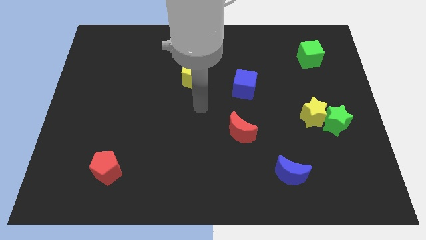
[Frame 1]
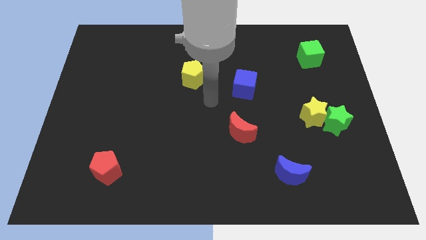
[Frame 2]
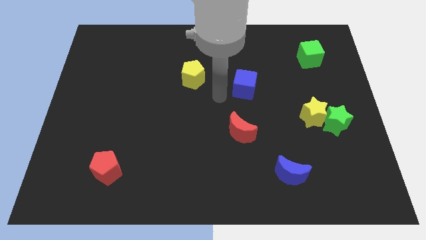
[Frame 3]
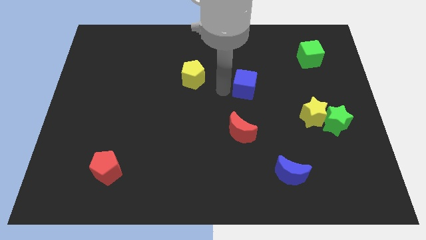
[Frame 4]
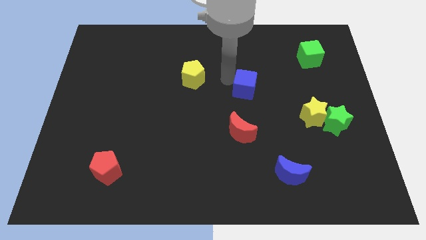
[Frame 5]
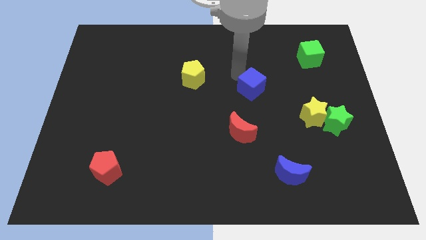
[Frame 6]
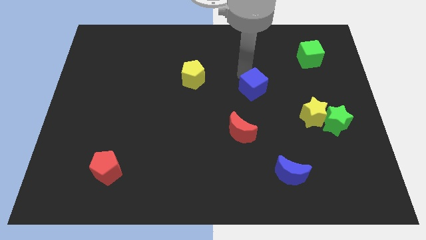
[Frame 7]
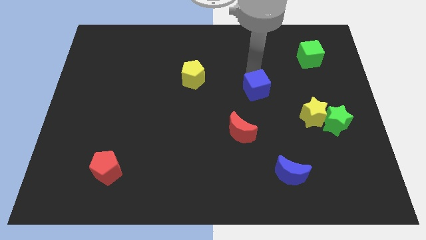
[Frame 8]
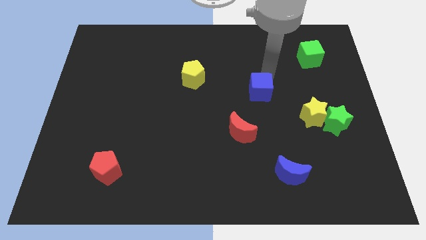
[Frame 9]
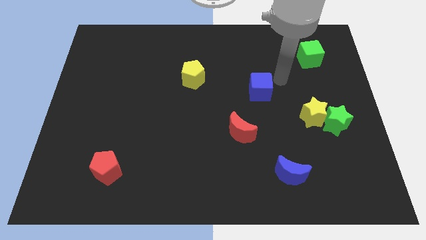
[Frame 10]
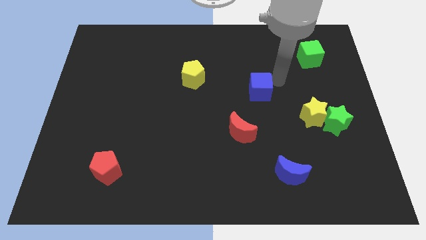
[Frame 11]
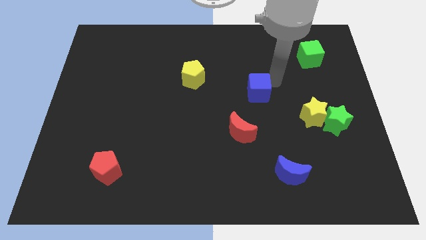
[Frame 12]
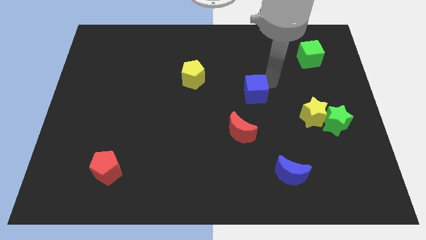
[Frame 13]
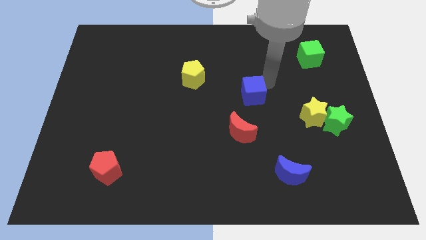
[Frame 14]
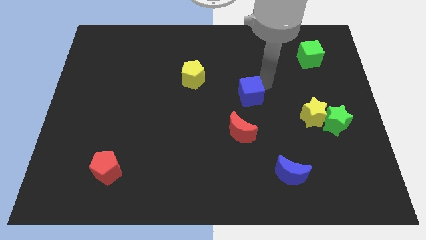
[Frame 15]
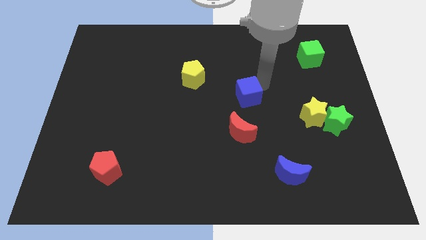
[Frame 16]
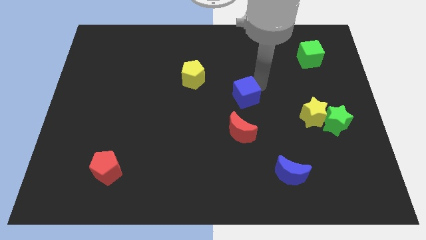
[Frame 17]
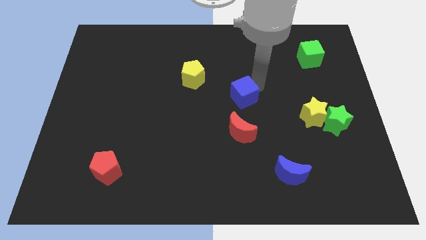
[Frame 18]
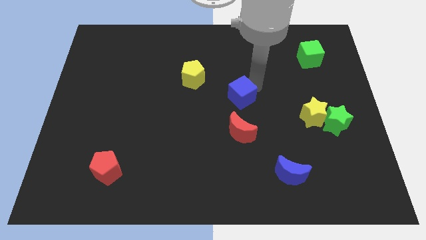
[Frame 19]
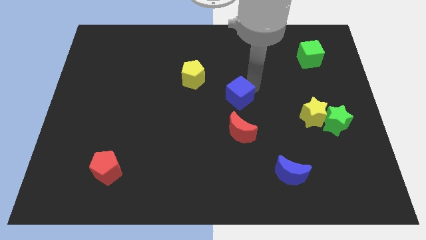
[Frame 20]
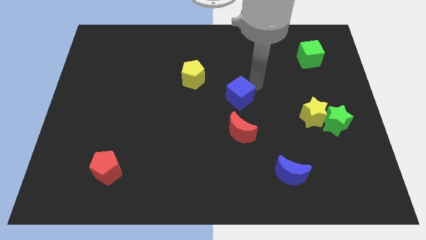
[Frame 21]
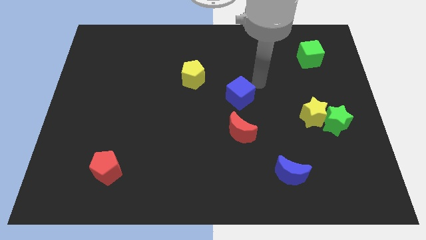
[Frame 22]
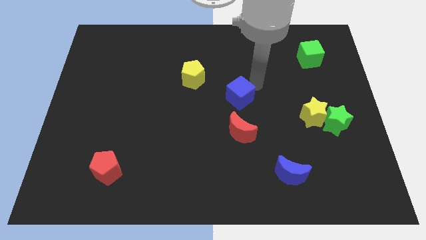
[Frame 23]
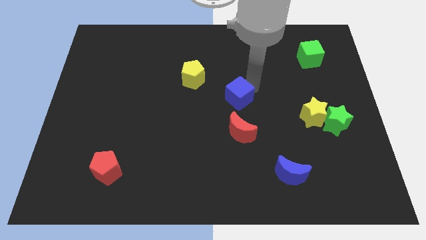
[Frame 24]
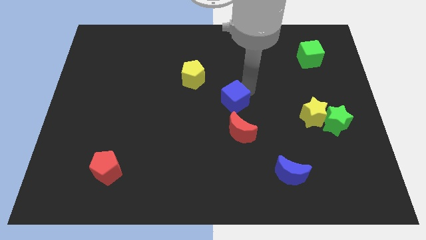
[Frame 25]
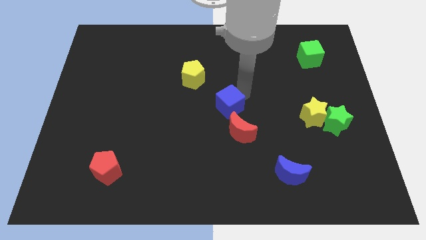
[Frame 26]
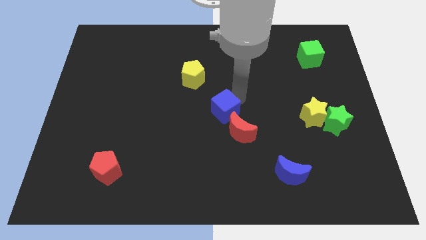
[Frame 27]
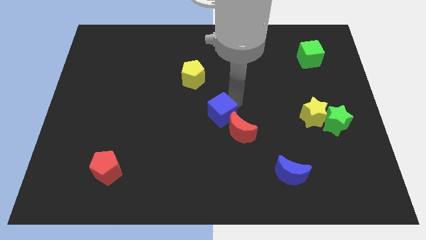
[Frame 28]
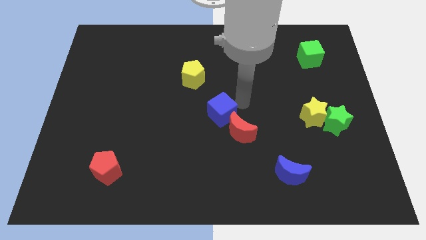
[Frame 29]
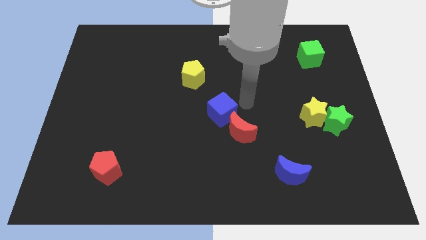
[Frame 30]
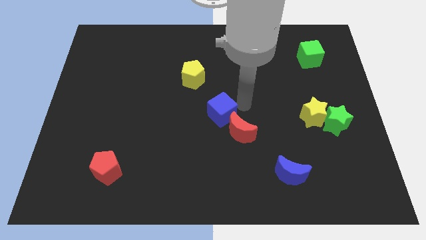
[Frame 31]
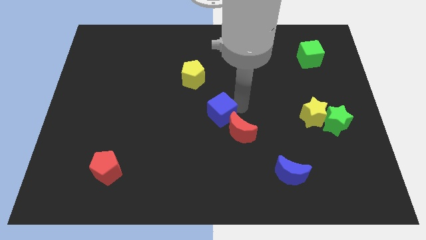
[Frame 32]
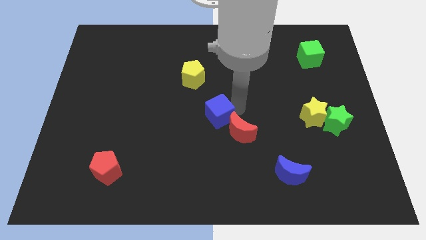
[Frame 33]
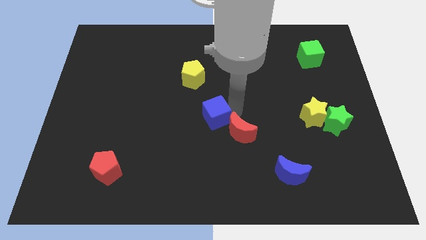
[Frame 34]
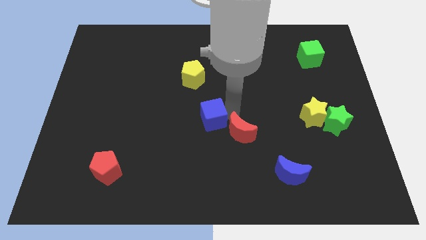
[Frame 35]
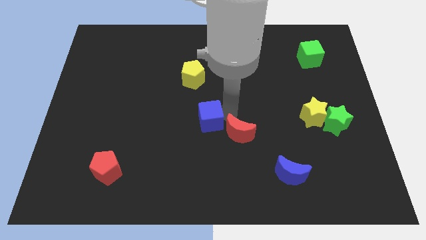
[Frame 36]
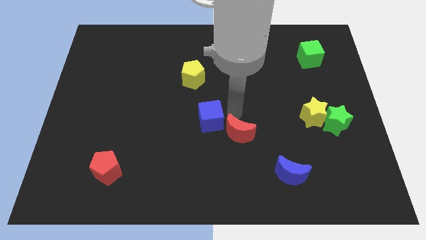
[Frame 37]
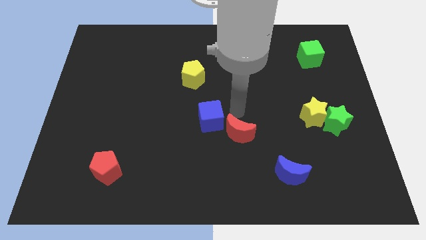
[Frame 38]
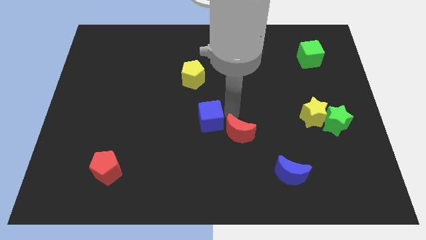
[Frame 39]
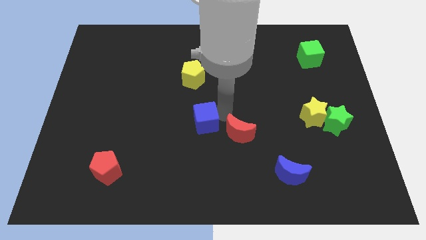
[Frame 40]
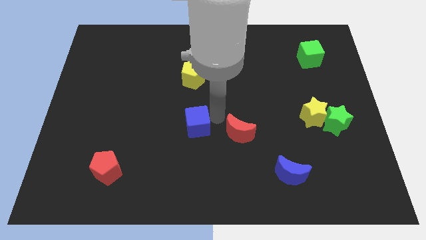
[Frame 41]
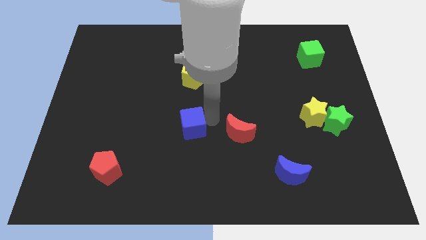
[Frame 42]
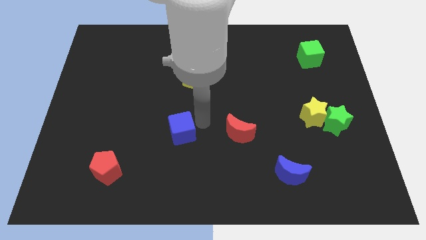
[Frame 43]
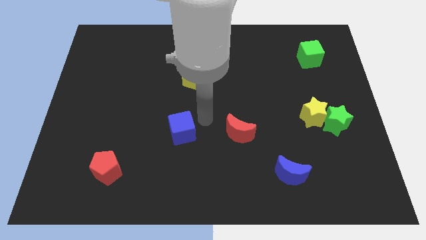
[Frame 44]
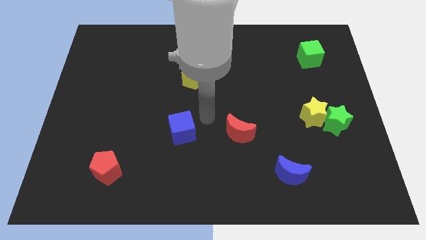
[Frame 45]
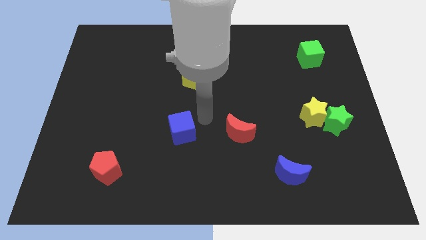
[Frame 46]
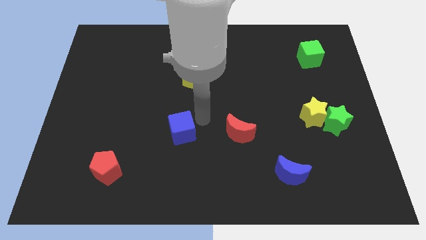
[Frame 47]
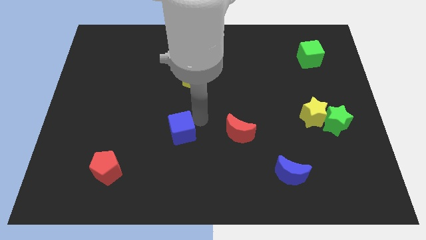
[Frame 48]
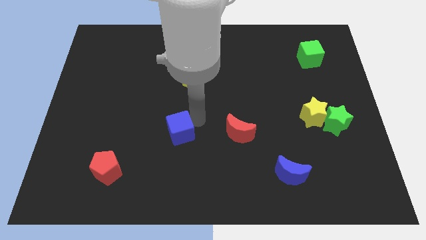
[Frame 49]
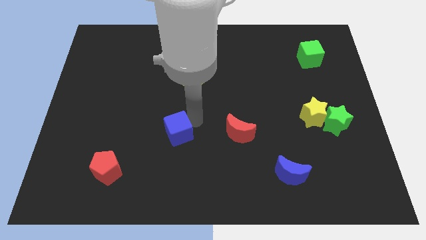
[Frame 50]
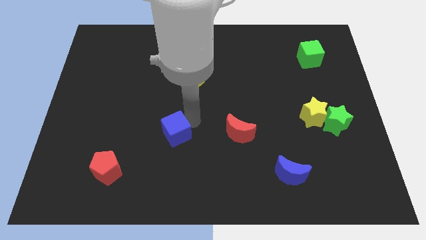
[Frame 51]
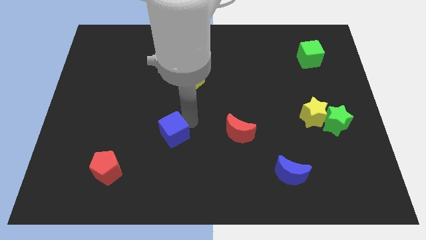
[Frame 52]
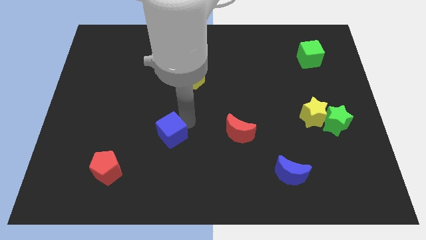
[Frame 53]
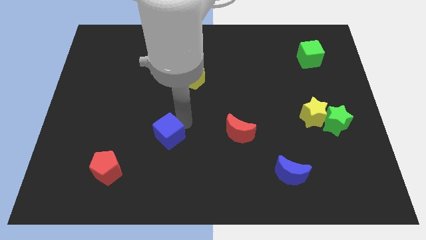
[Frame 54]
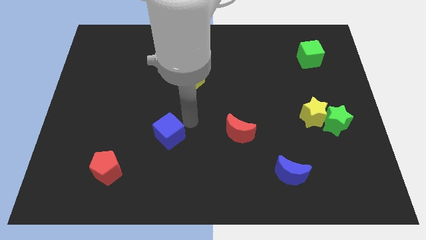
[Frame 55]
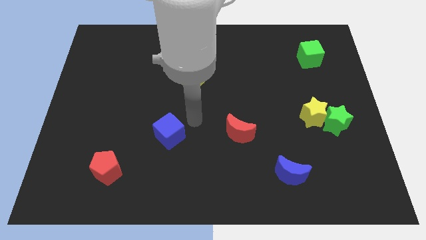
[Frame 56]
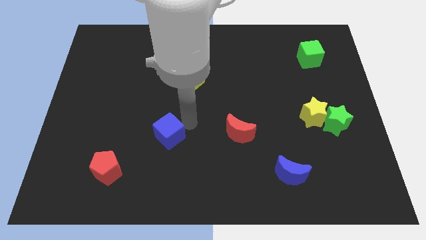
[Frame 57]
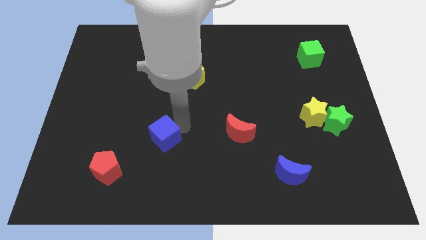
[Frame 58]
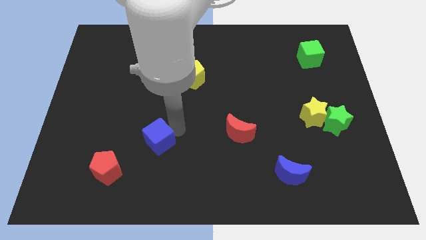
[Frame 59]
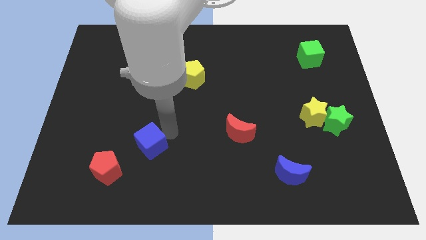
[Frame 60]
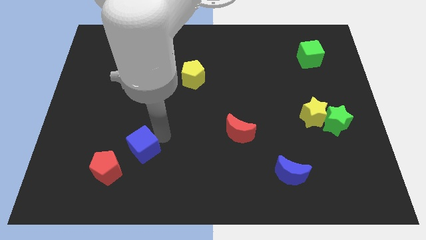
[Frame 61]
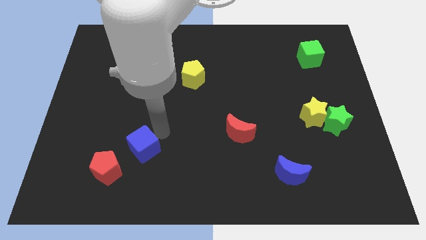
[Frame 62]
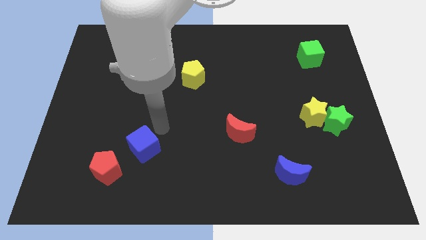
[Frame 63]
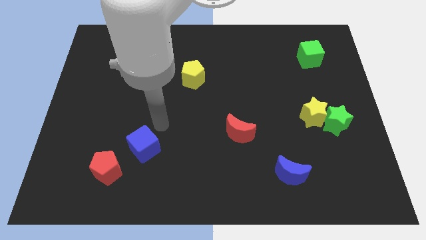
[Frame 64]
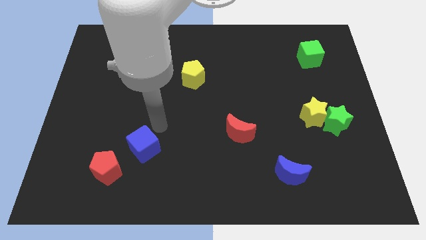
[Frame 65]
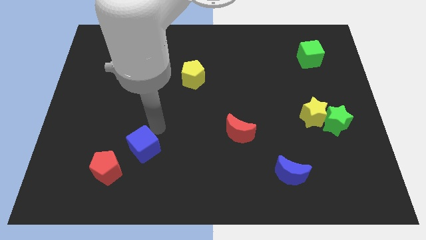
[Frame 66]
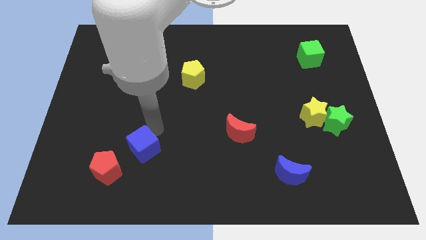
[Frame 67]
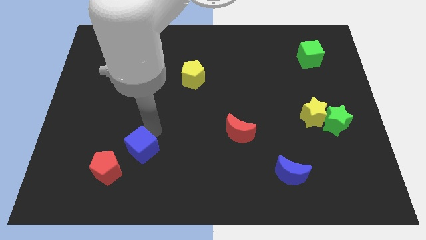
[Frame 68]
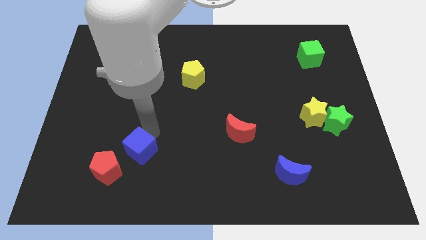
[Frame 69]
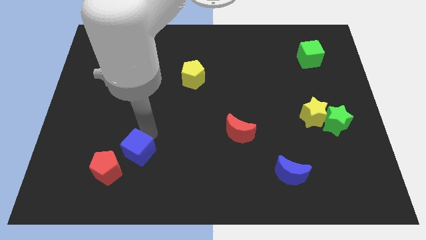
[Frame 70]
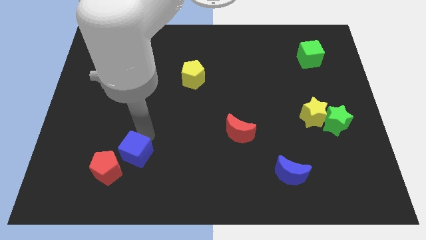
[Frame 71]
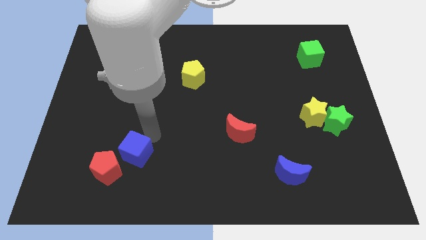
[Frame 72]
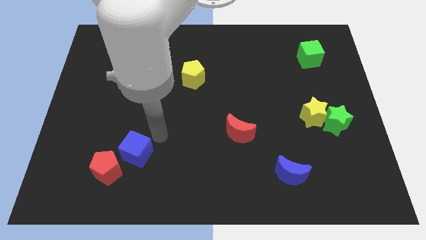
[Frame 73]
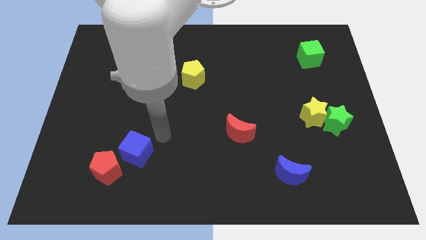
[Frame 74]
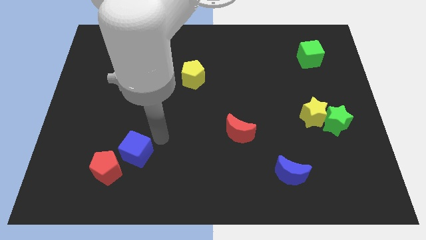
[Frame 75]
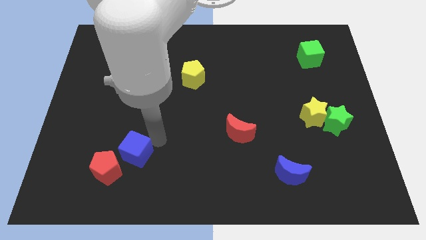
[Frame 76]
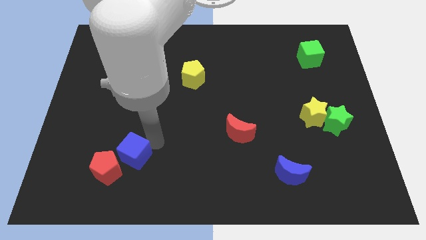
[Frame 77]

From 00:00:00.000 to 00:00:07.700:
move the blue cube close to the red pentagon
